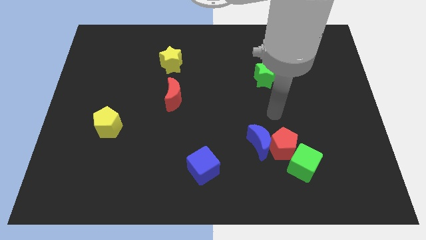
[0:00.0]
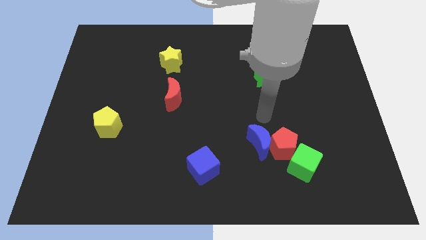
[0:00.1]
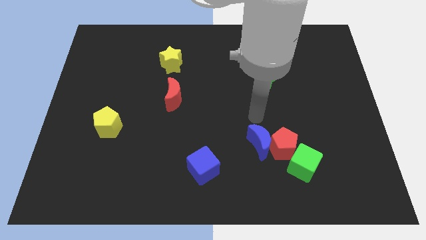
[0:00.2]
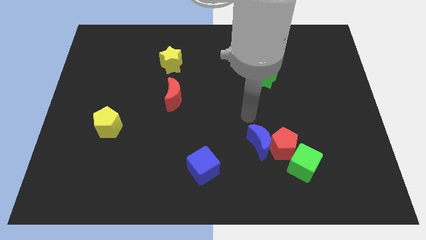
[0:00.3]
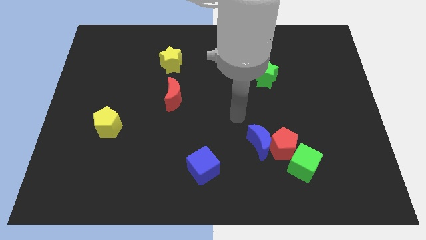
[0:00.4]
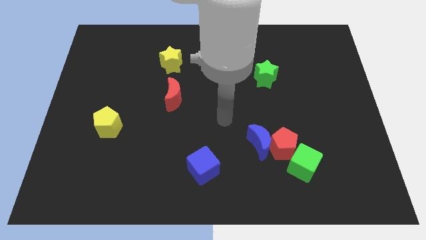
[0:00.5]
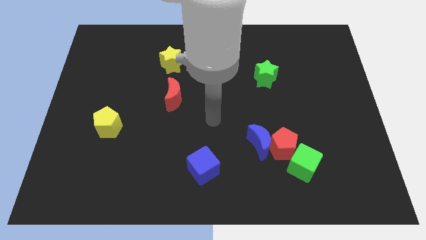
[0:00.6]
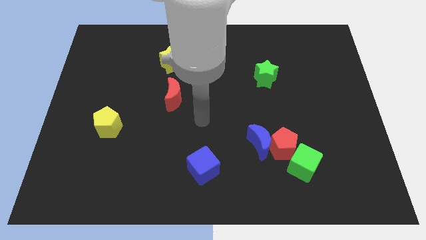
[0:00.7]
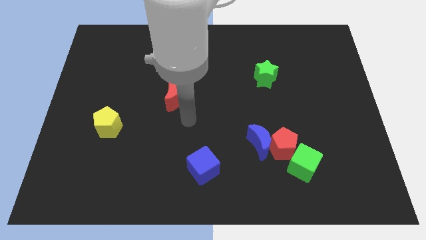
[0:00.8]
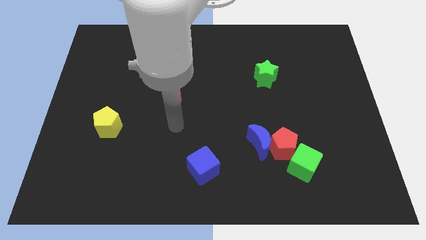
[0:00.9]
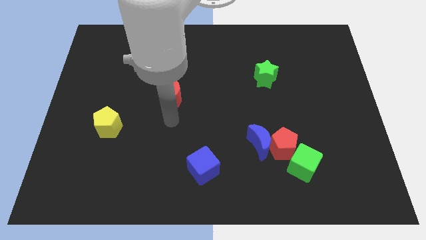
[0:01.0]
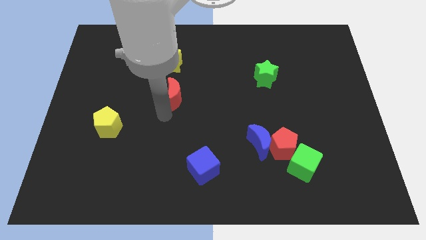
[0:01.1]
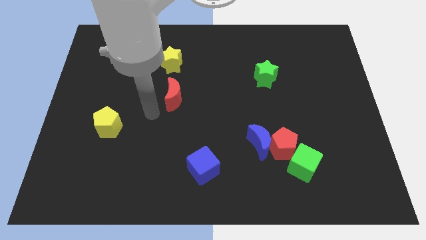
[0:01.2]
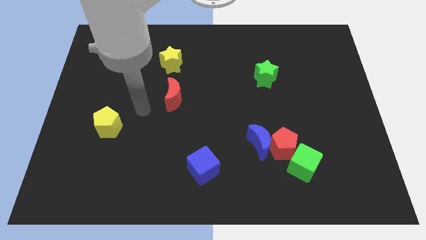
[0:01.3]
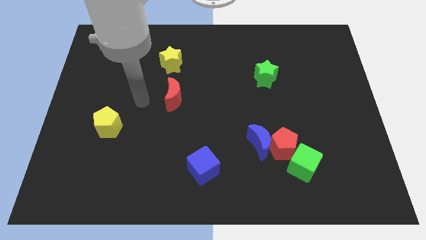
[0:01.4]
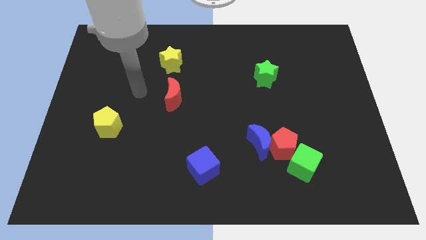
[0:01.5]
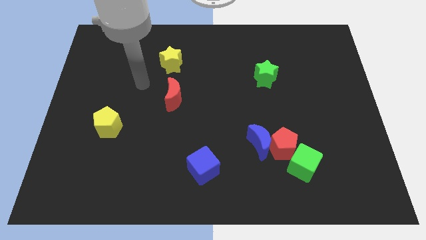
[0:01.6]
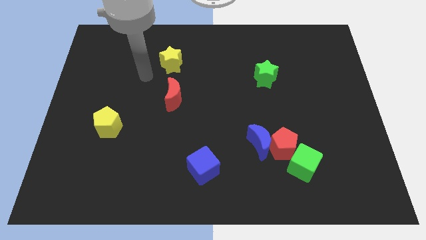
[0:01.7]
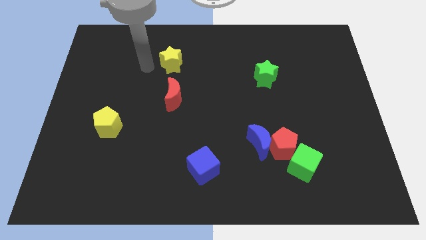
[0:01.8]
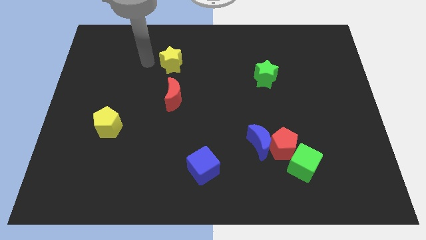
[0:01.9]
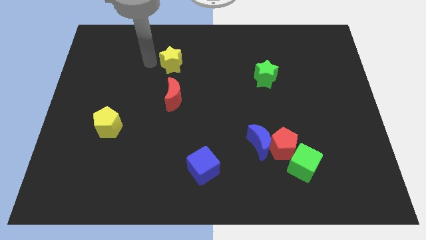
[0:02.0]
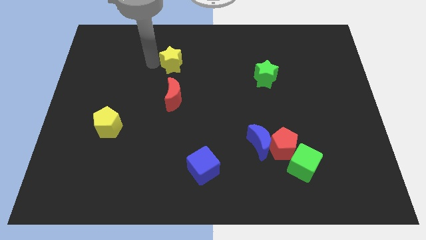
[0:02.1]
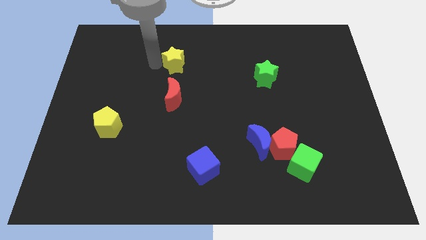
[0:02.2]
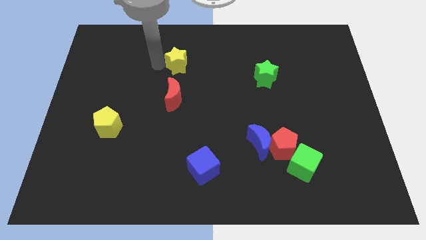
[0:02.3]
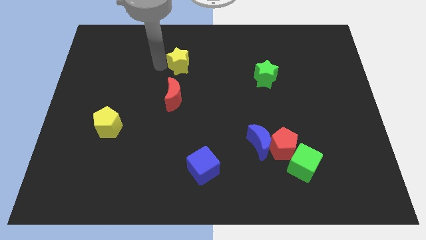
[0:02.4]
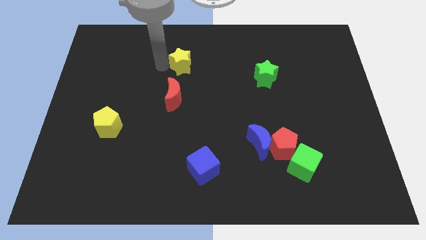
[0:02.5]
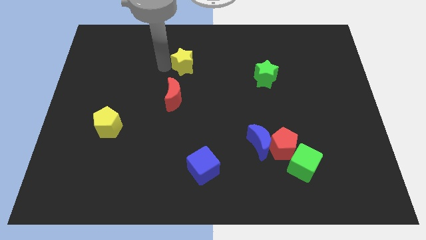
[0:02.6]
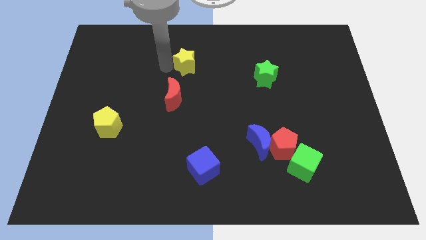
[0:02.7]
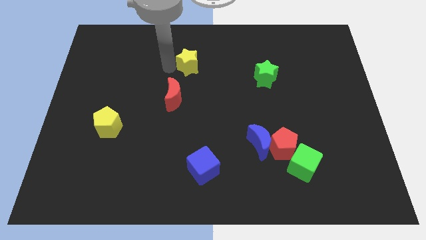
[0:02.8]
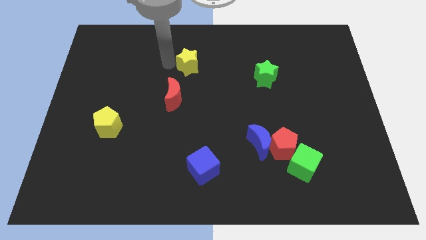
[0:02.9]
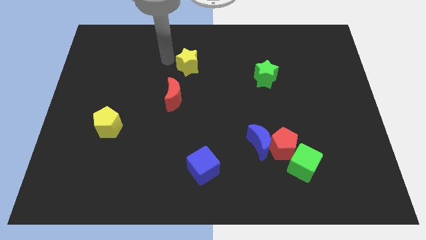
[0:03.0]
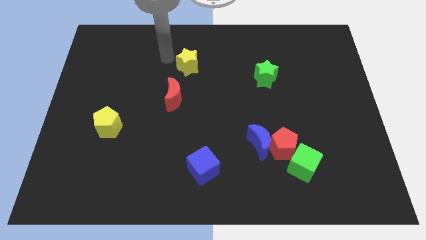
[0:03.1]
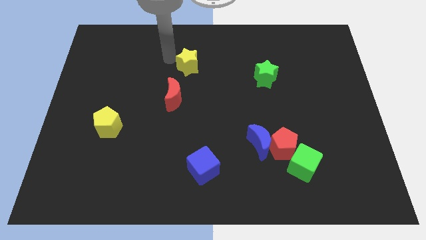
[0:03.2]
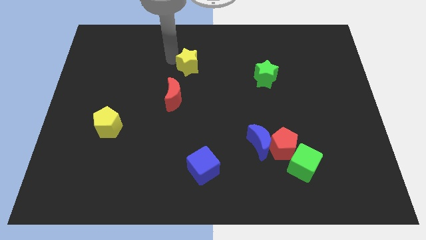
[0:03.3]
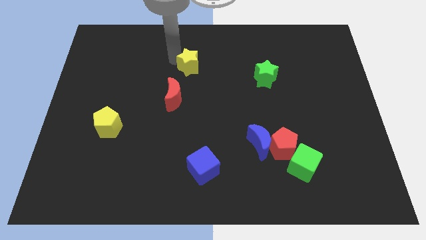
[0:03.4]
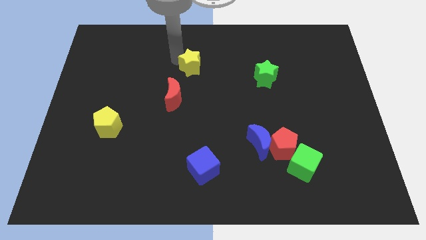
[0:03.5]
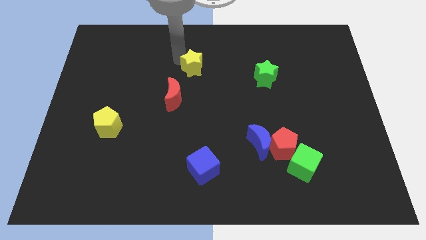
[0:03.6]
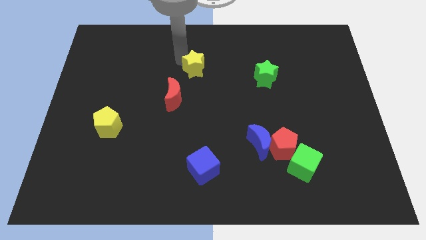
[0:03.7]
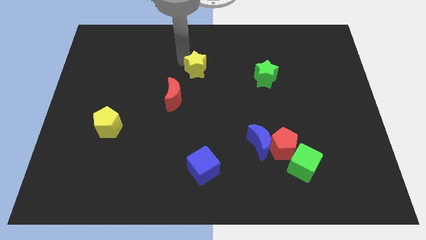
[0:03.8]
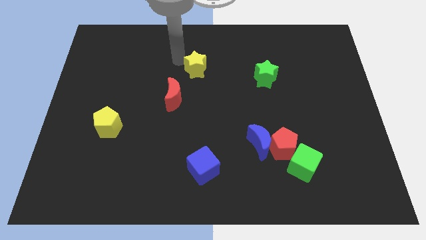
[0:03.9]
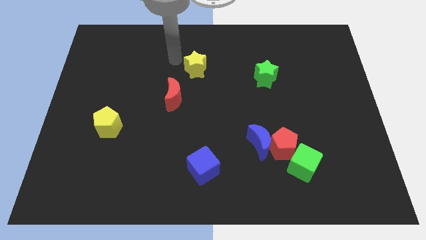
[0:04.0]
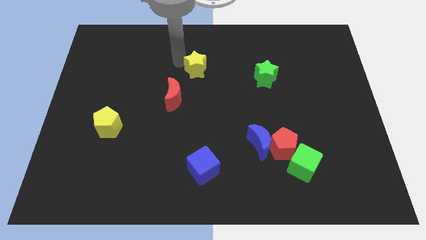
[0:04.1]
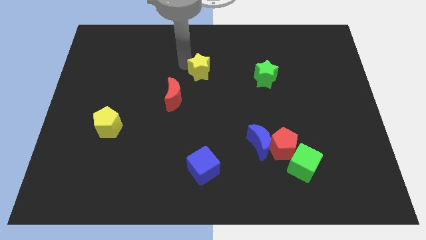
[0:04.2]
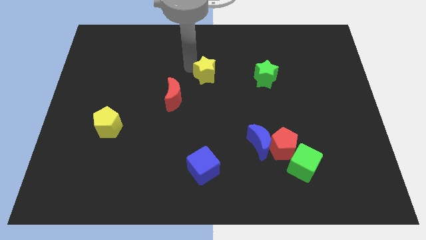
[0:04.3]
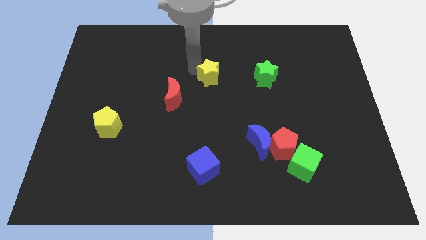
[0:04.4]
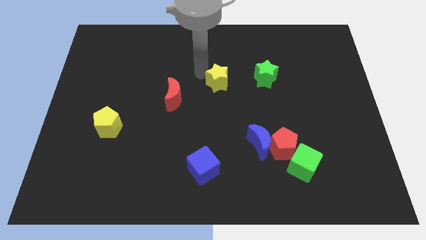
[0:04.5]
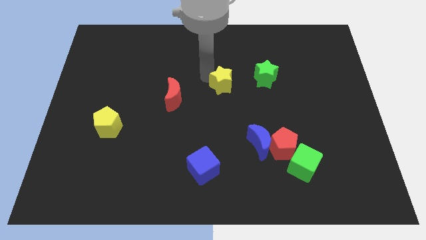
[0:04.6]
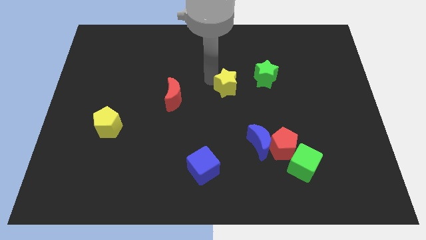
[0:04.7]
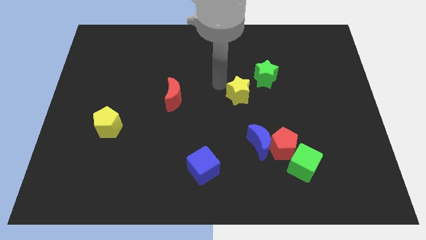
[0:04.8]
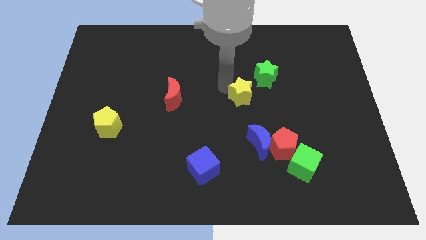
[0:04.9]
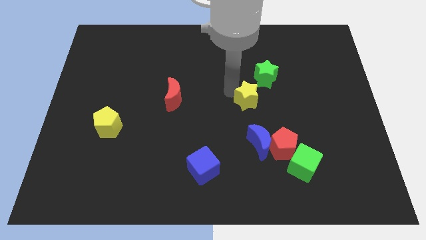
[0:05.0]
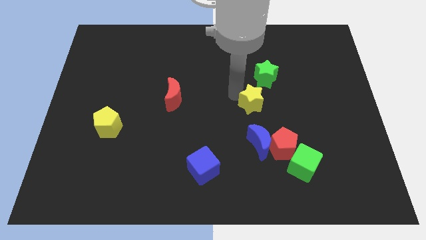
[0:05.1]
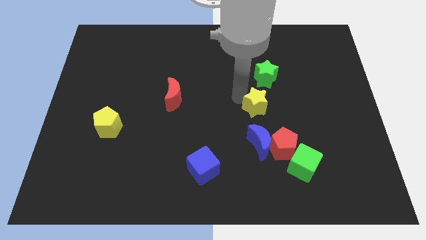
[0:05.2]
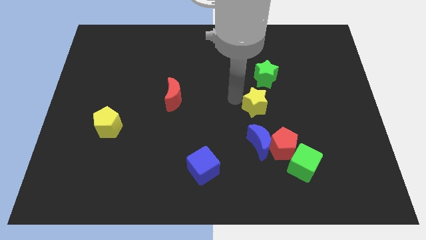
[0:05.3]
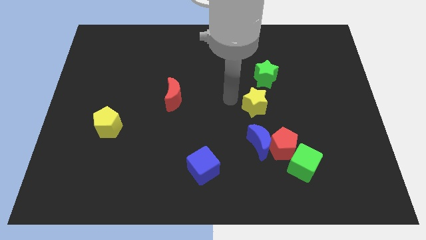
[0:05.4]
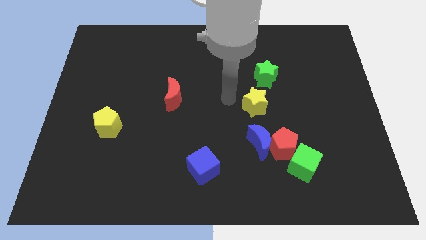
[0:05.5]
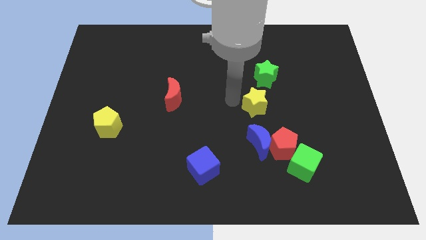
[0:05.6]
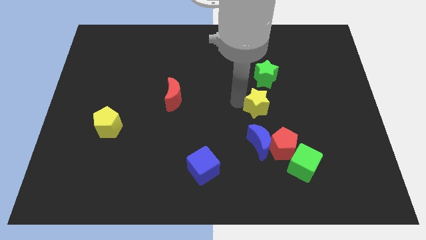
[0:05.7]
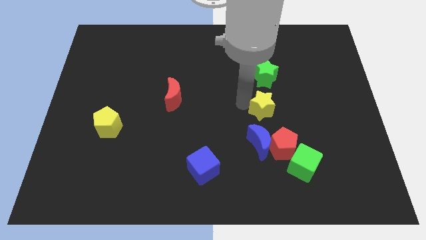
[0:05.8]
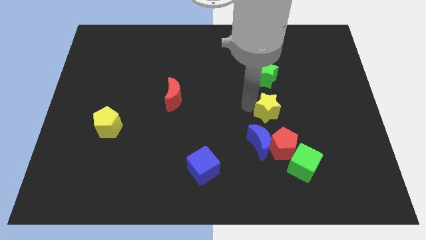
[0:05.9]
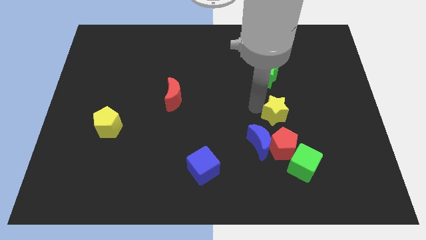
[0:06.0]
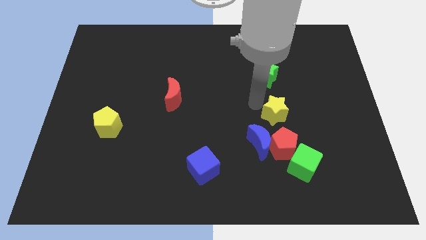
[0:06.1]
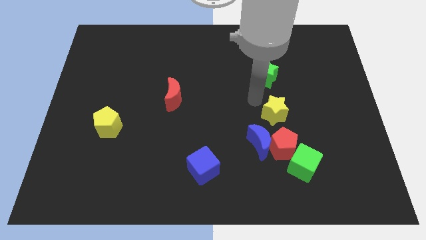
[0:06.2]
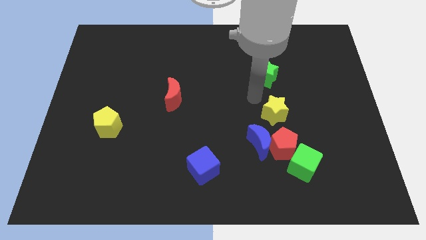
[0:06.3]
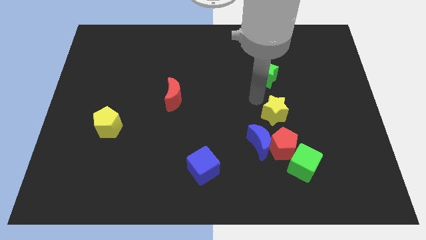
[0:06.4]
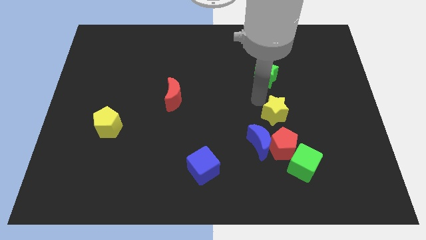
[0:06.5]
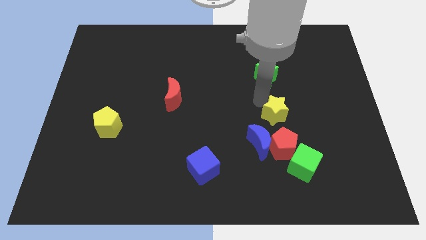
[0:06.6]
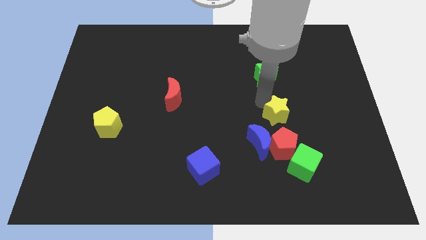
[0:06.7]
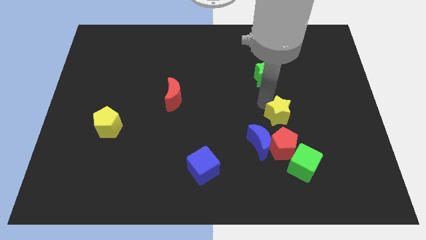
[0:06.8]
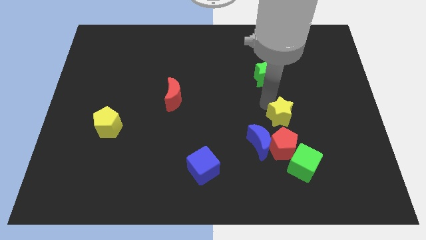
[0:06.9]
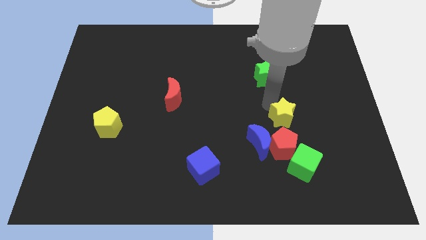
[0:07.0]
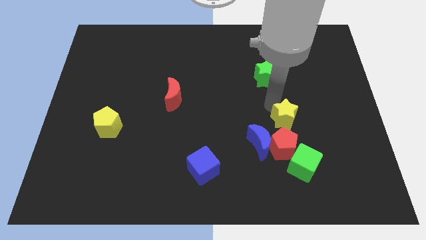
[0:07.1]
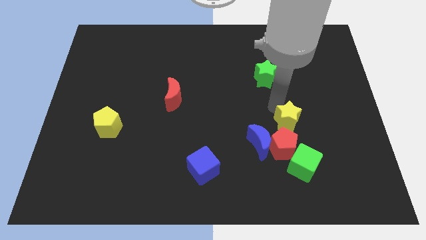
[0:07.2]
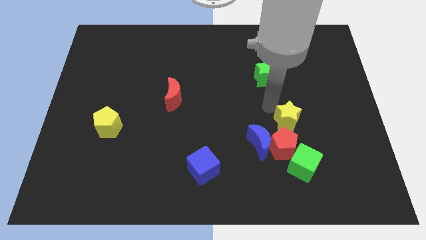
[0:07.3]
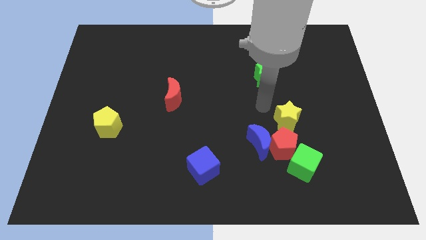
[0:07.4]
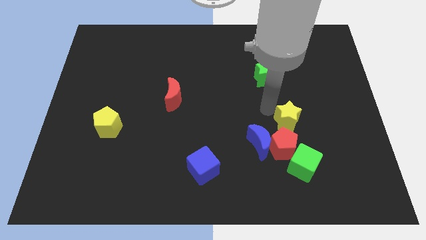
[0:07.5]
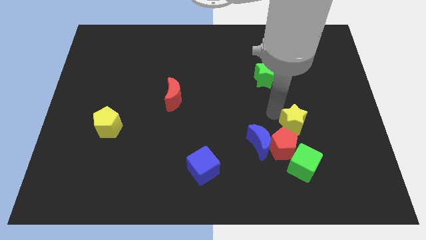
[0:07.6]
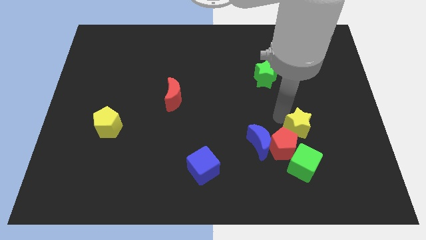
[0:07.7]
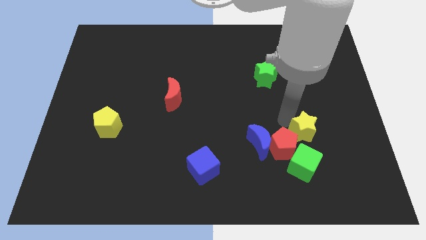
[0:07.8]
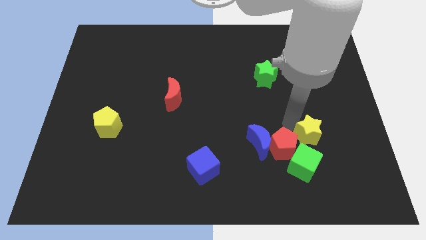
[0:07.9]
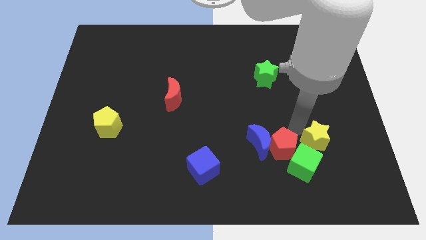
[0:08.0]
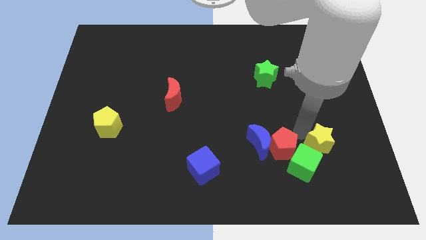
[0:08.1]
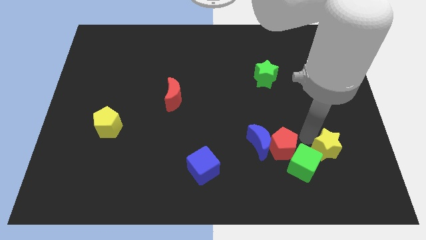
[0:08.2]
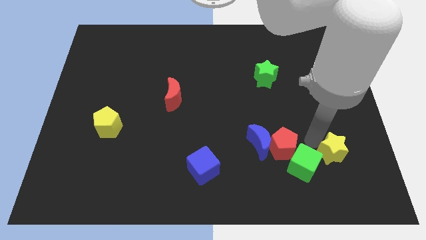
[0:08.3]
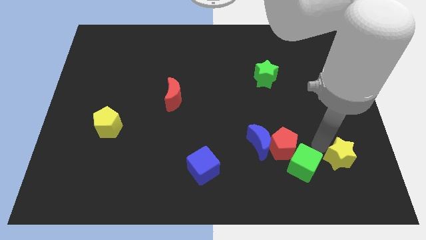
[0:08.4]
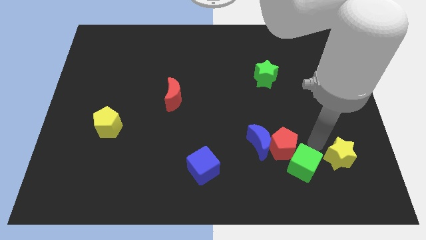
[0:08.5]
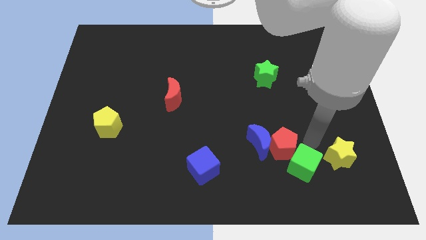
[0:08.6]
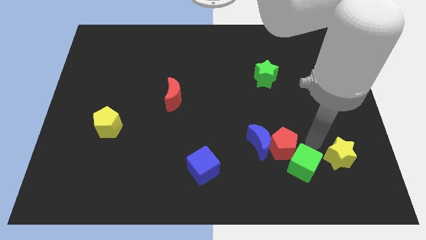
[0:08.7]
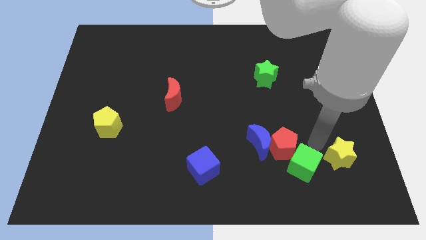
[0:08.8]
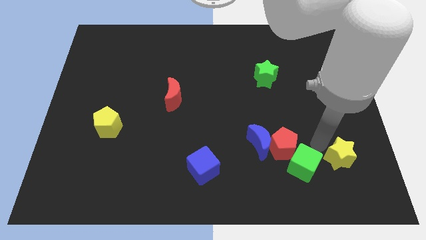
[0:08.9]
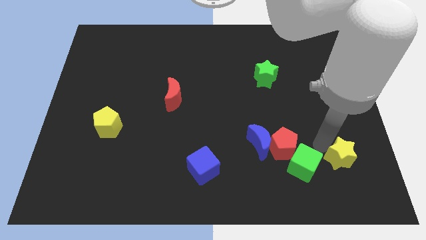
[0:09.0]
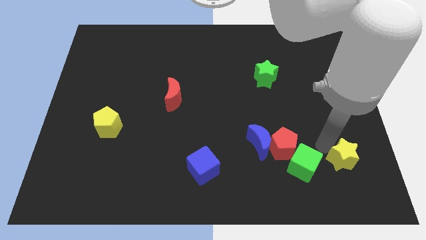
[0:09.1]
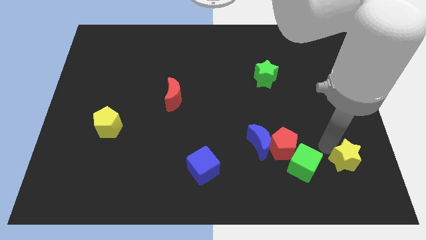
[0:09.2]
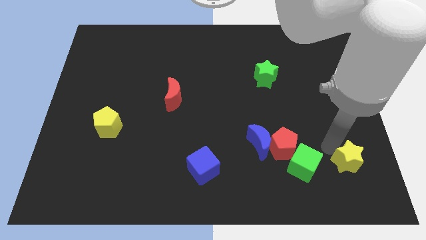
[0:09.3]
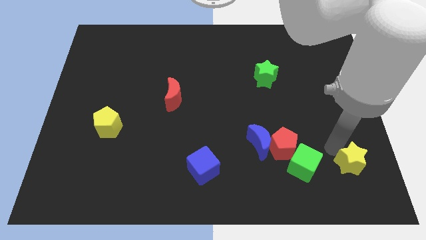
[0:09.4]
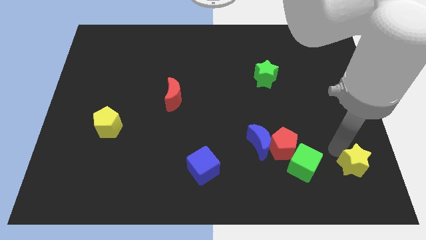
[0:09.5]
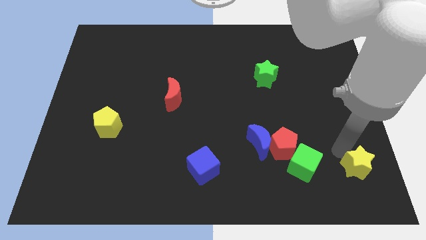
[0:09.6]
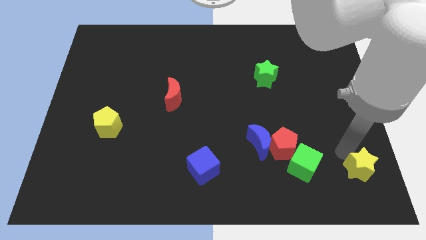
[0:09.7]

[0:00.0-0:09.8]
push the yellow star to the bottom right
